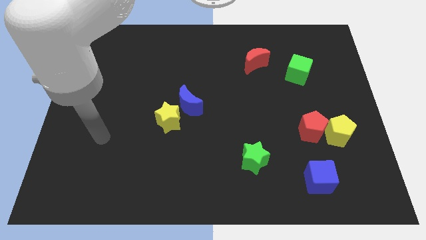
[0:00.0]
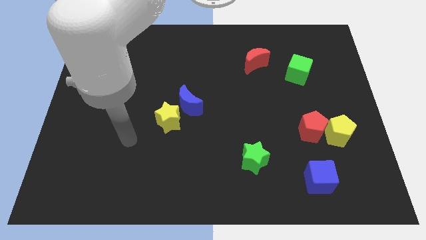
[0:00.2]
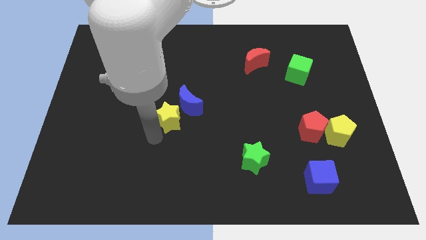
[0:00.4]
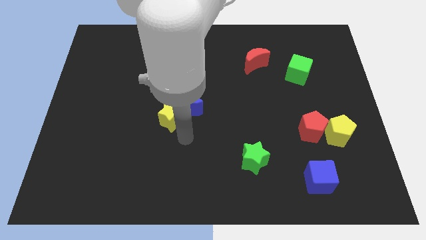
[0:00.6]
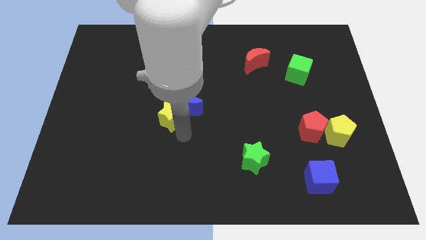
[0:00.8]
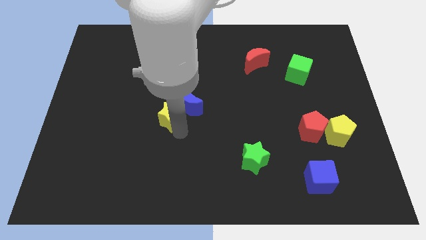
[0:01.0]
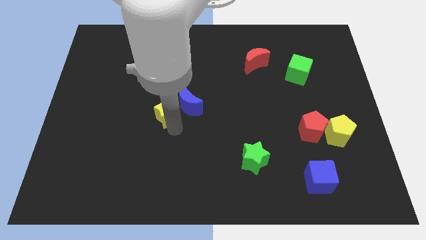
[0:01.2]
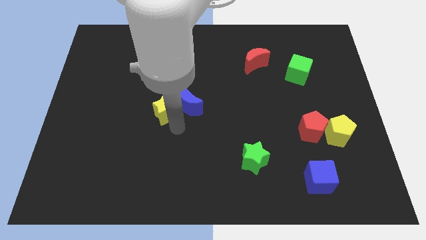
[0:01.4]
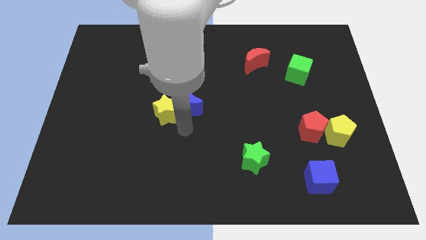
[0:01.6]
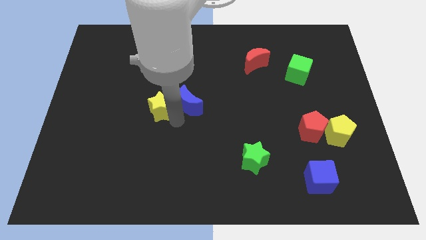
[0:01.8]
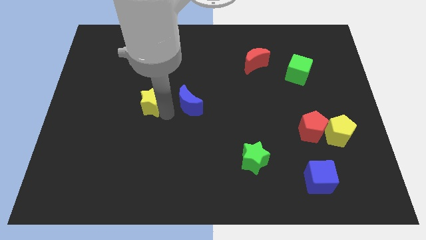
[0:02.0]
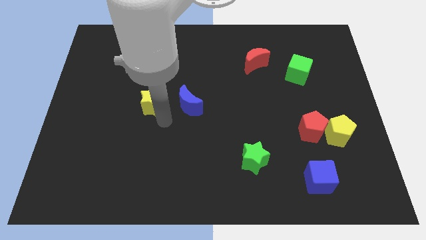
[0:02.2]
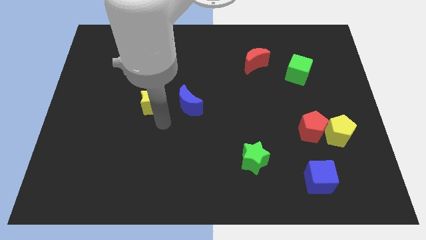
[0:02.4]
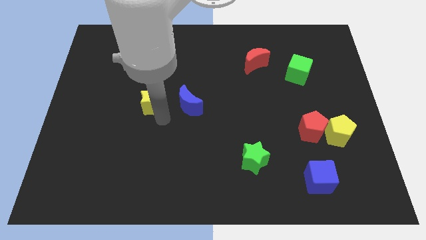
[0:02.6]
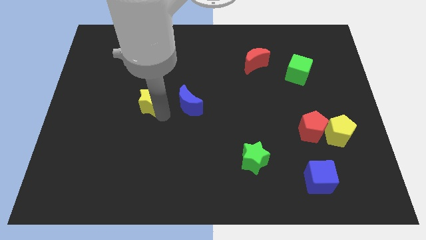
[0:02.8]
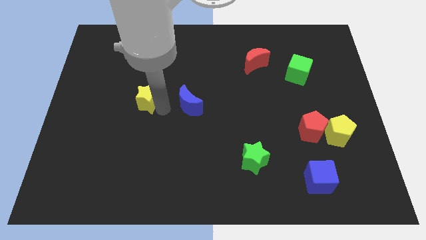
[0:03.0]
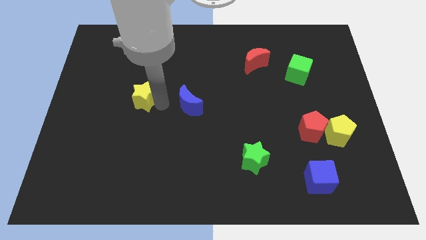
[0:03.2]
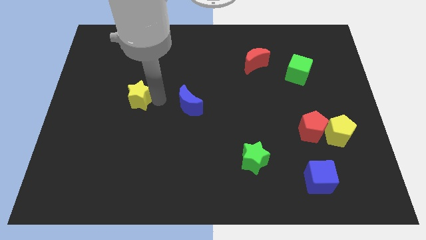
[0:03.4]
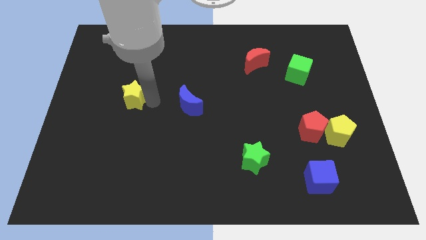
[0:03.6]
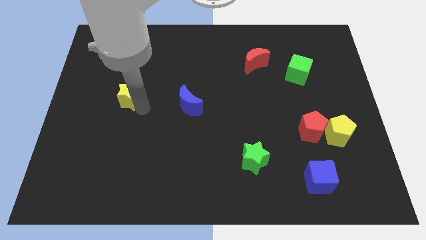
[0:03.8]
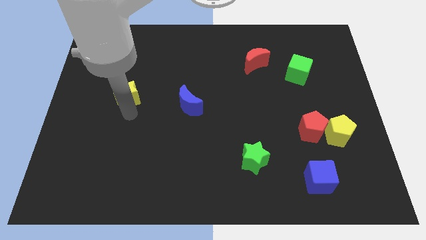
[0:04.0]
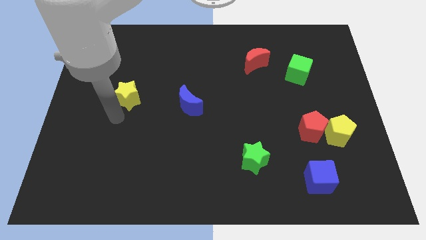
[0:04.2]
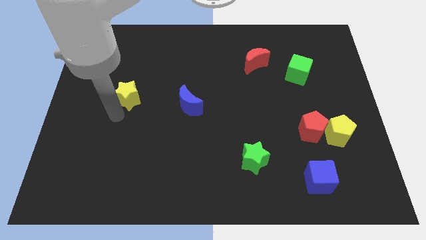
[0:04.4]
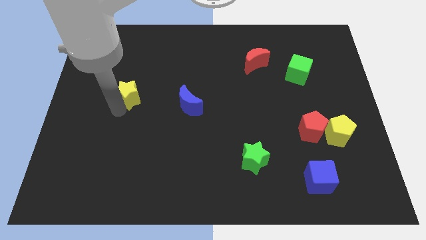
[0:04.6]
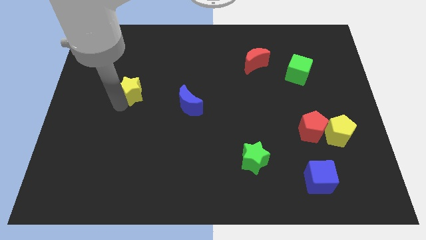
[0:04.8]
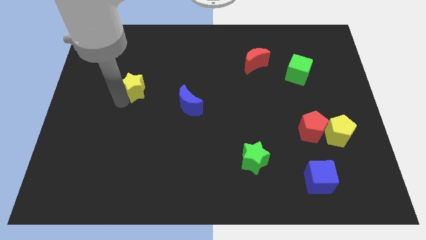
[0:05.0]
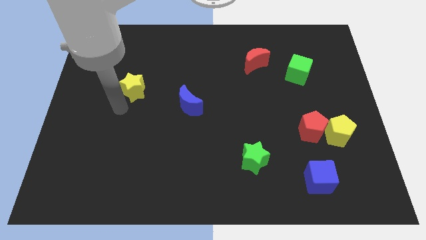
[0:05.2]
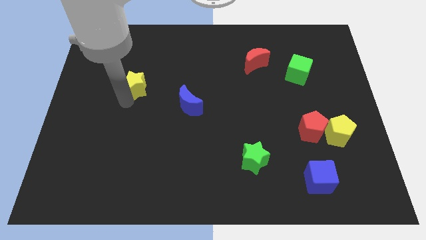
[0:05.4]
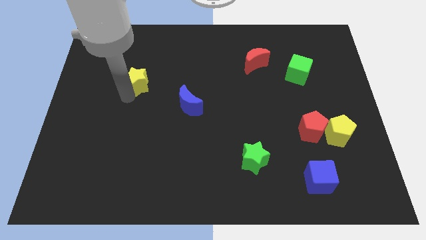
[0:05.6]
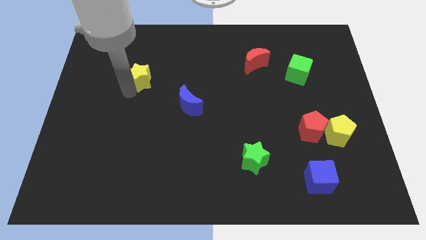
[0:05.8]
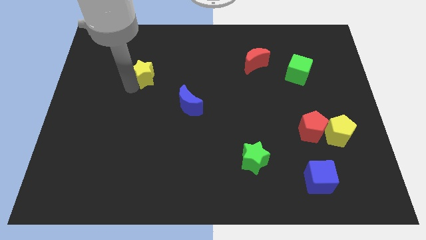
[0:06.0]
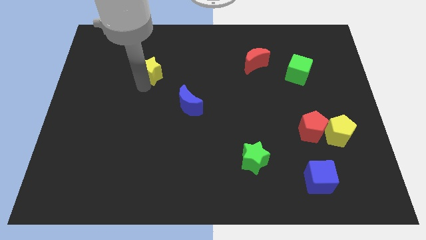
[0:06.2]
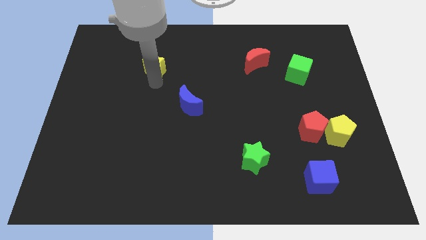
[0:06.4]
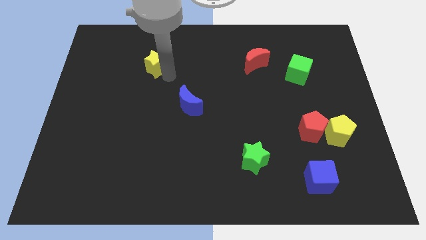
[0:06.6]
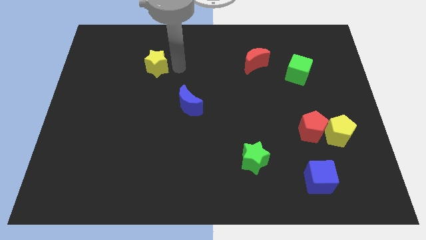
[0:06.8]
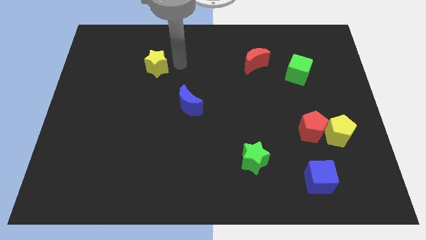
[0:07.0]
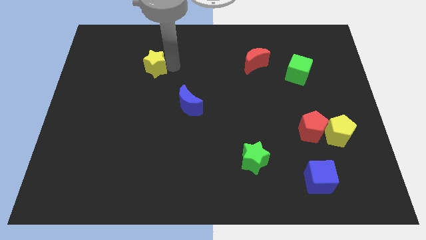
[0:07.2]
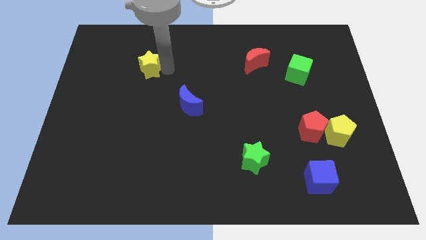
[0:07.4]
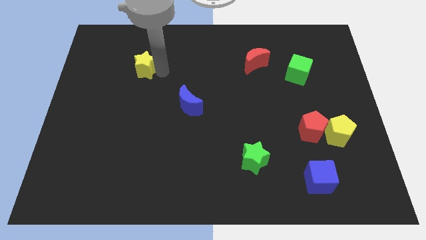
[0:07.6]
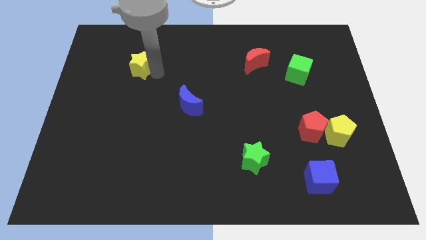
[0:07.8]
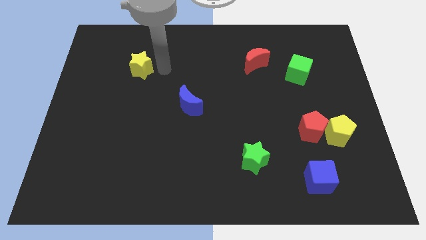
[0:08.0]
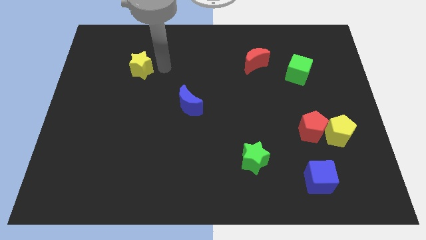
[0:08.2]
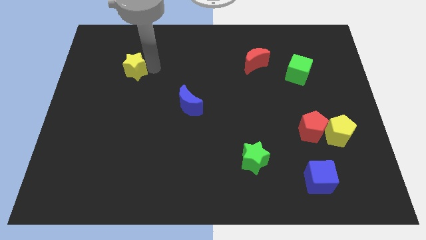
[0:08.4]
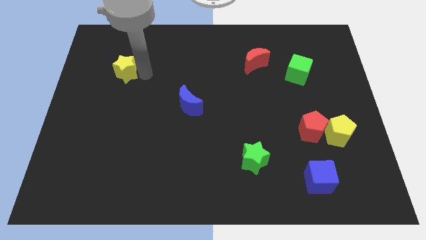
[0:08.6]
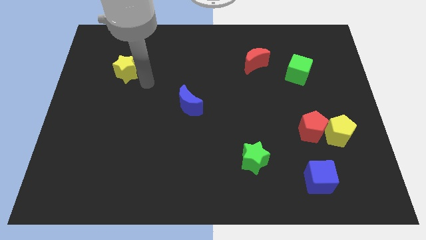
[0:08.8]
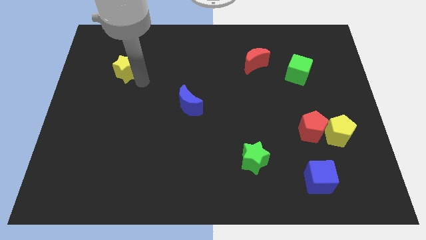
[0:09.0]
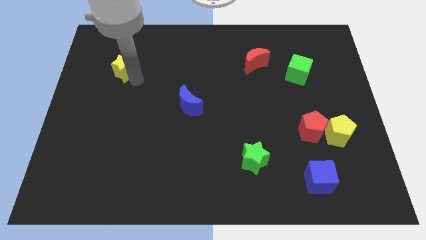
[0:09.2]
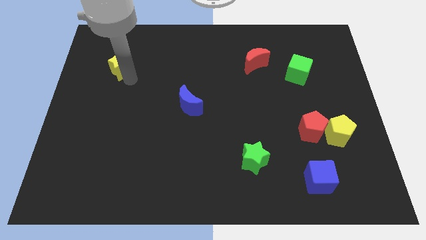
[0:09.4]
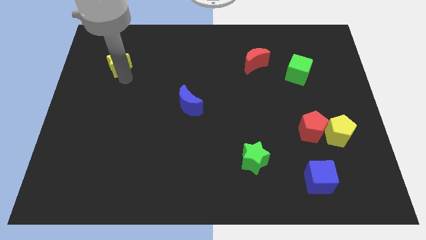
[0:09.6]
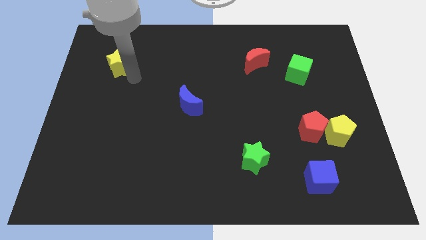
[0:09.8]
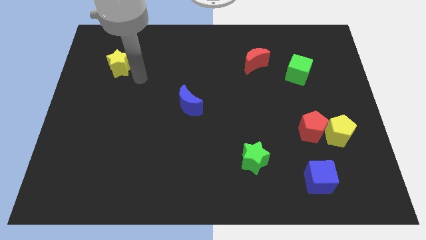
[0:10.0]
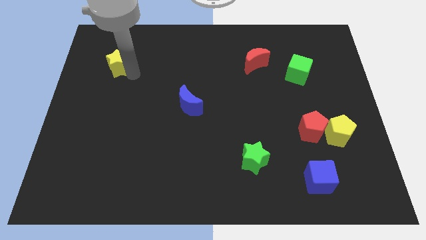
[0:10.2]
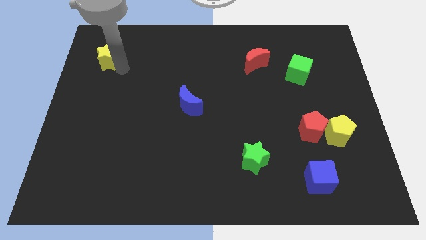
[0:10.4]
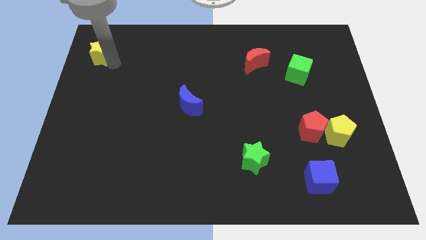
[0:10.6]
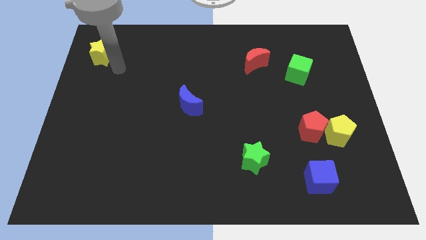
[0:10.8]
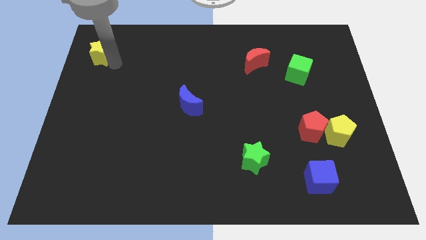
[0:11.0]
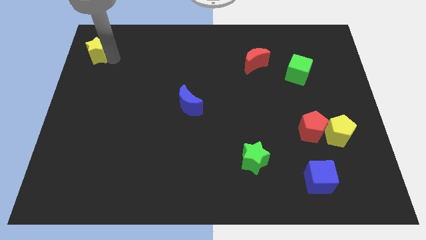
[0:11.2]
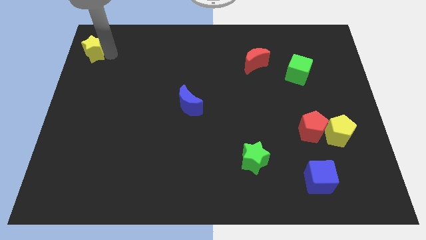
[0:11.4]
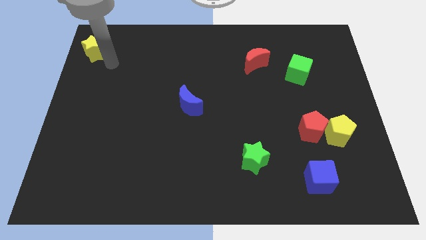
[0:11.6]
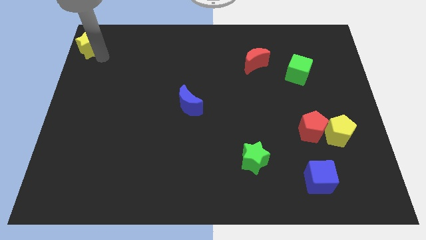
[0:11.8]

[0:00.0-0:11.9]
push the yellow star to the upper left corner
